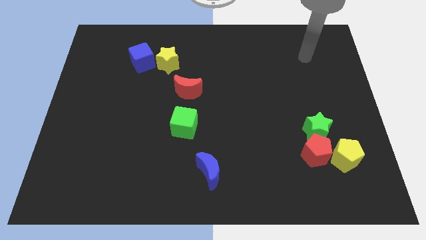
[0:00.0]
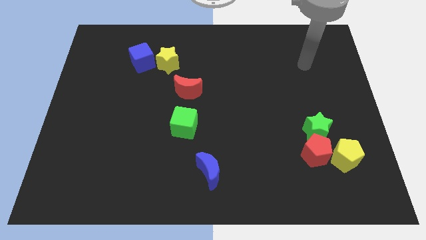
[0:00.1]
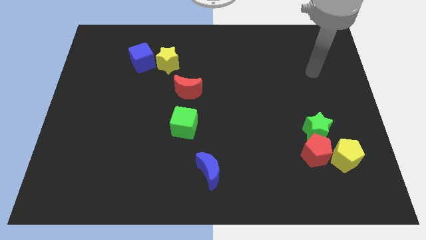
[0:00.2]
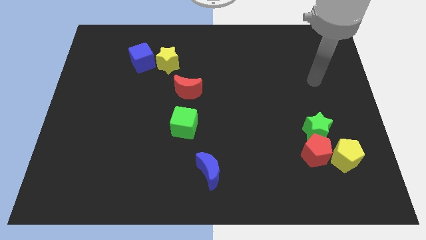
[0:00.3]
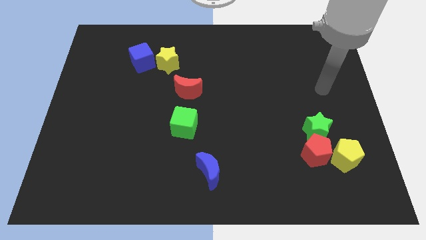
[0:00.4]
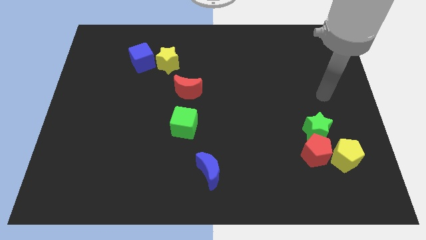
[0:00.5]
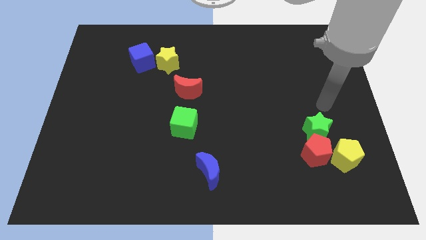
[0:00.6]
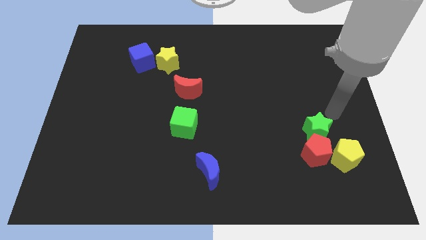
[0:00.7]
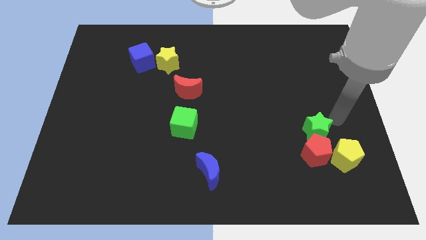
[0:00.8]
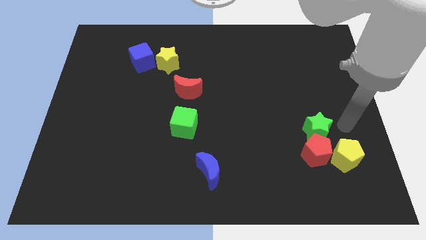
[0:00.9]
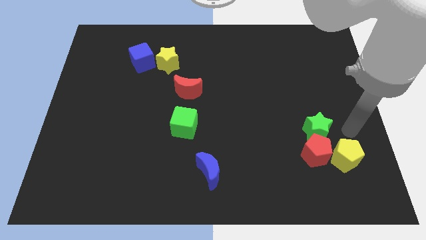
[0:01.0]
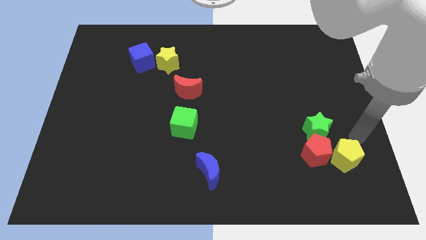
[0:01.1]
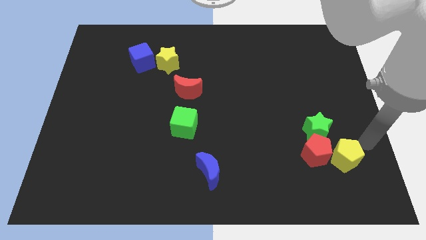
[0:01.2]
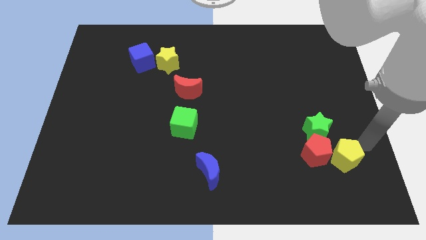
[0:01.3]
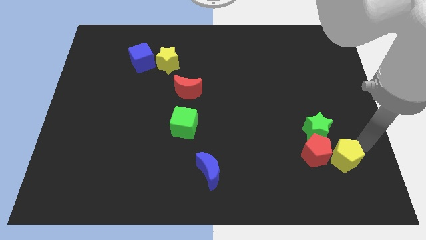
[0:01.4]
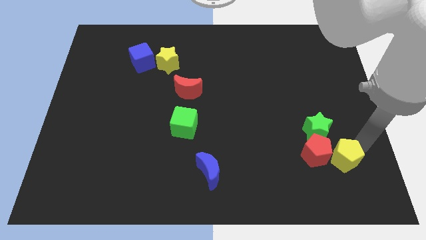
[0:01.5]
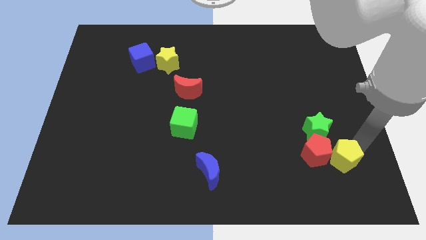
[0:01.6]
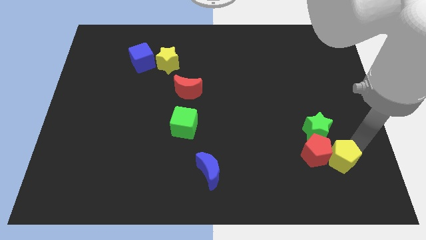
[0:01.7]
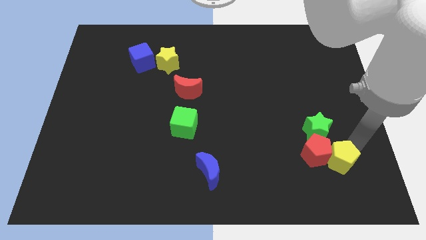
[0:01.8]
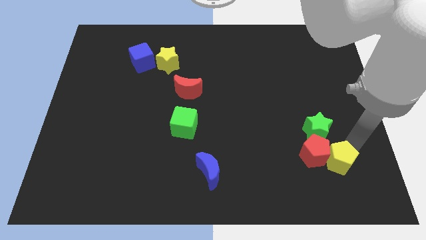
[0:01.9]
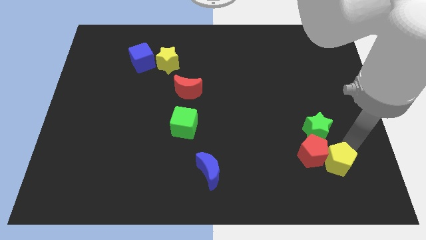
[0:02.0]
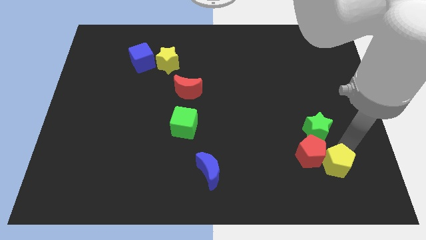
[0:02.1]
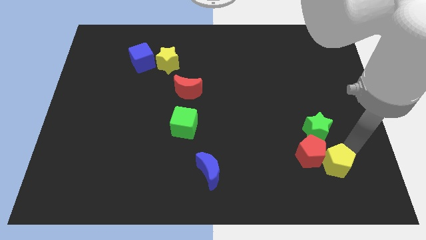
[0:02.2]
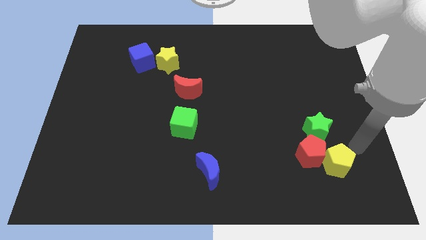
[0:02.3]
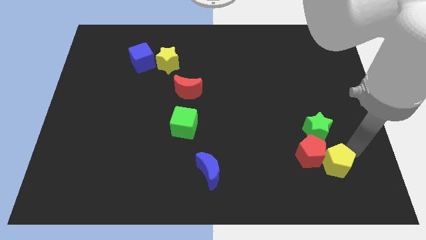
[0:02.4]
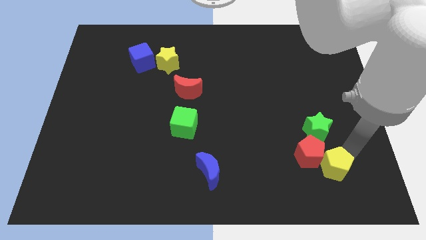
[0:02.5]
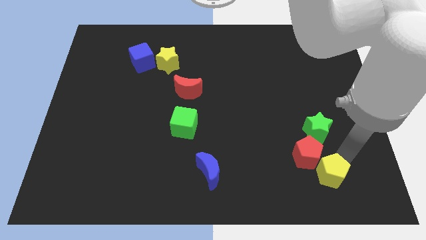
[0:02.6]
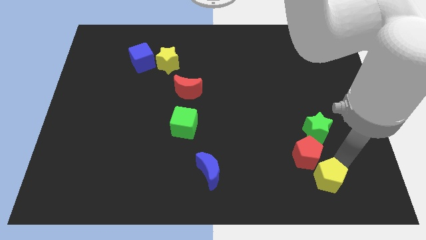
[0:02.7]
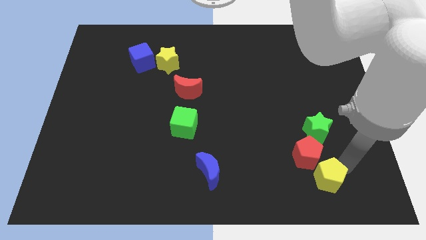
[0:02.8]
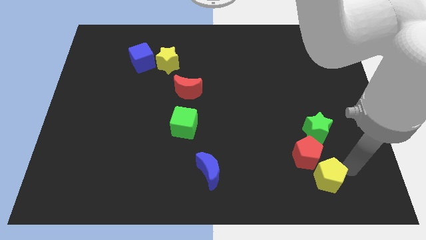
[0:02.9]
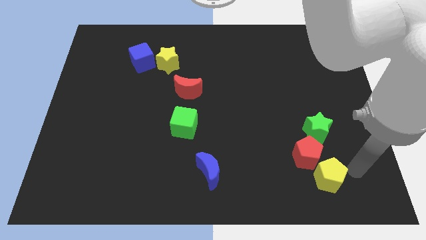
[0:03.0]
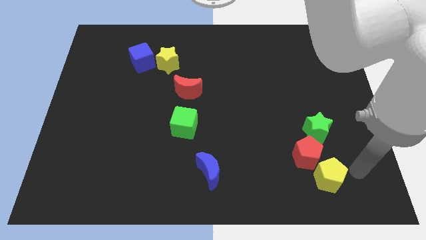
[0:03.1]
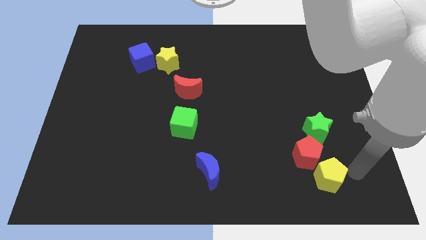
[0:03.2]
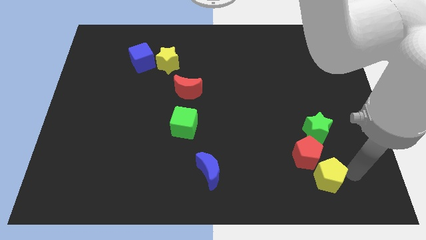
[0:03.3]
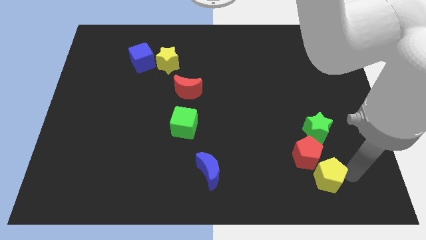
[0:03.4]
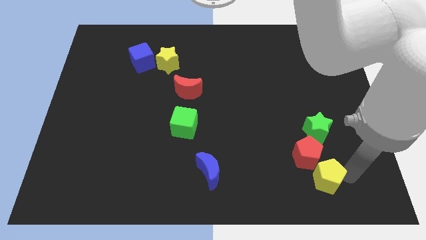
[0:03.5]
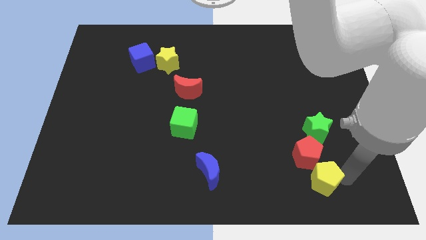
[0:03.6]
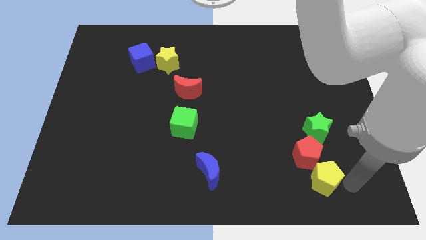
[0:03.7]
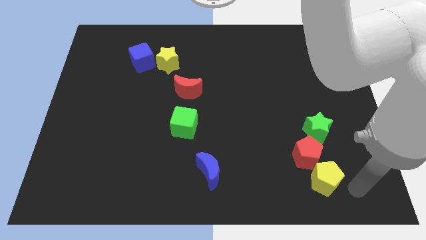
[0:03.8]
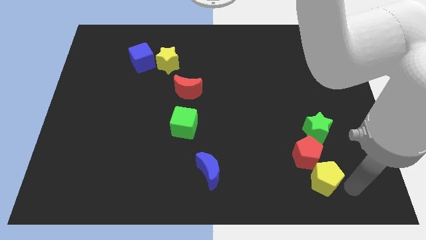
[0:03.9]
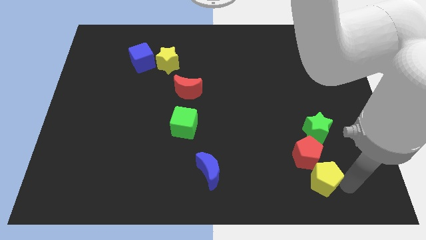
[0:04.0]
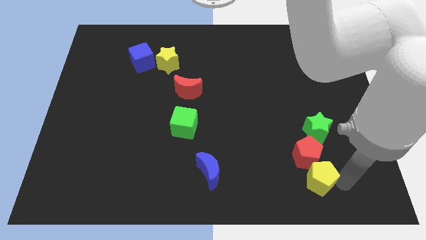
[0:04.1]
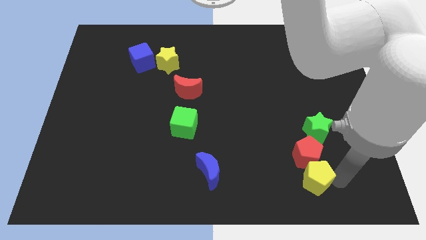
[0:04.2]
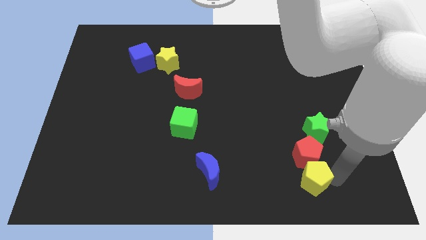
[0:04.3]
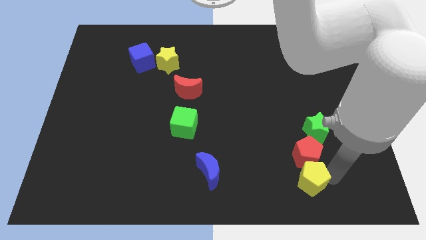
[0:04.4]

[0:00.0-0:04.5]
slide the yellow pentagon a little bit to the left

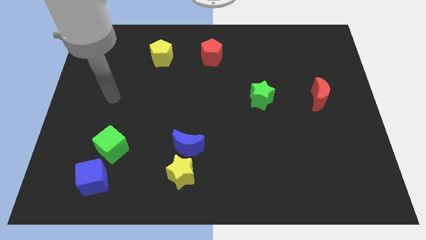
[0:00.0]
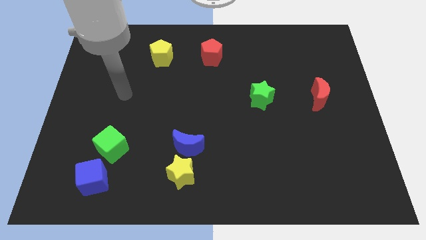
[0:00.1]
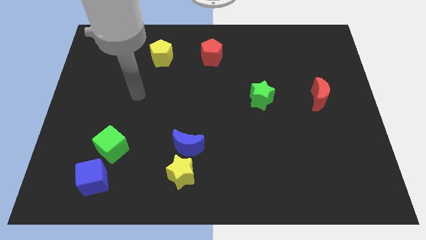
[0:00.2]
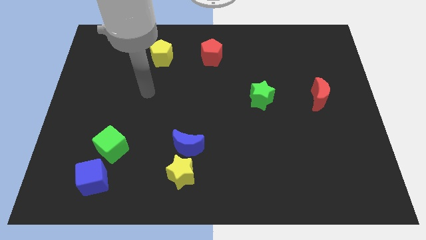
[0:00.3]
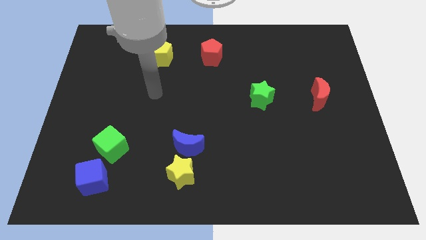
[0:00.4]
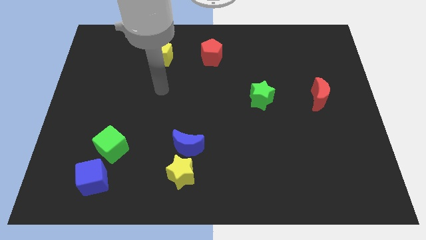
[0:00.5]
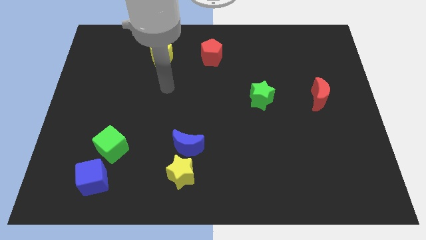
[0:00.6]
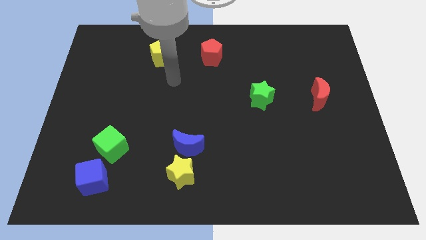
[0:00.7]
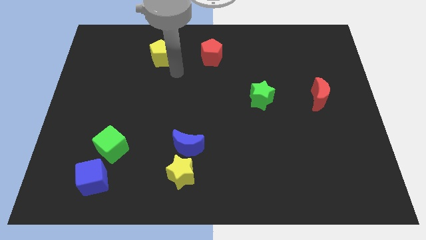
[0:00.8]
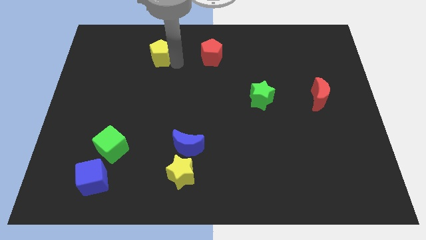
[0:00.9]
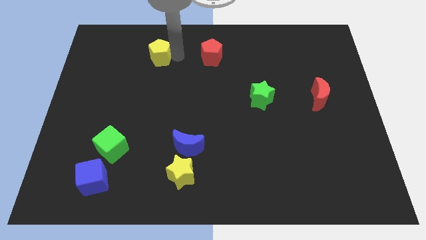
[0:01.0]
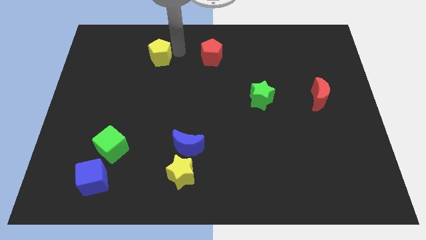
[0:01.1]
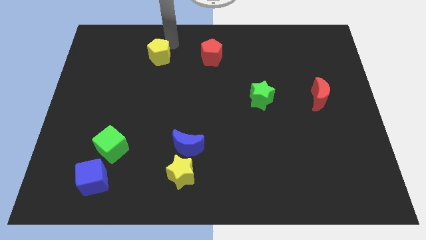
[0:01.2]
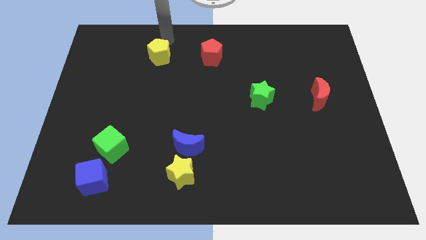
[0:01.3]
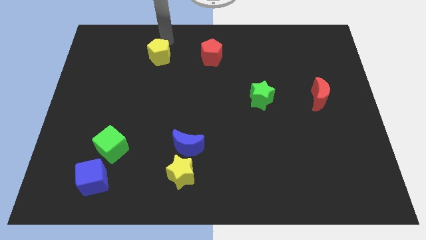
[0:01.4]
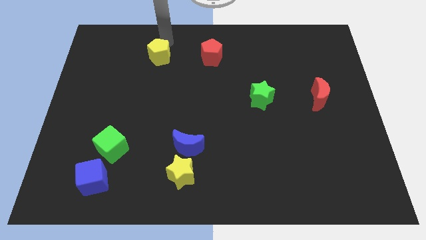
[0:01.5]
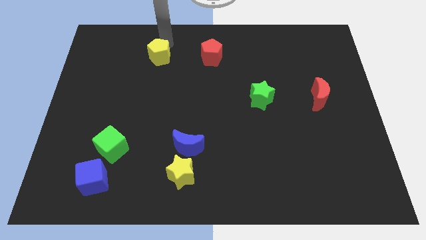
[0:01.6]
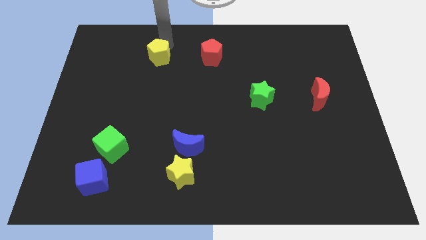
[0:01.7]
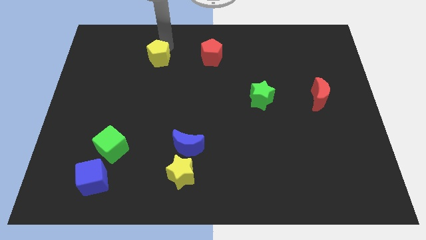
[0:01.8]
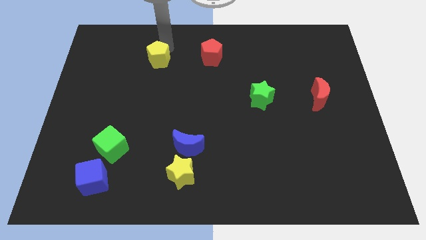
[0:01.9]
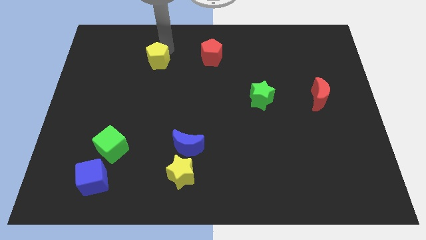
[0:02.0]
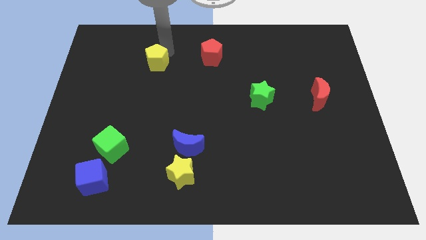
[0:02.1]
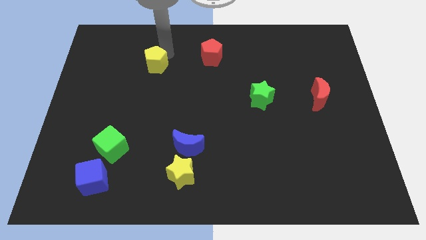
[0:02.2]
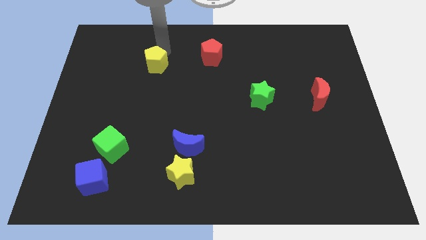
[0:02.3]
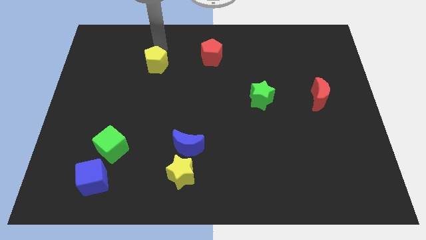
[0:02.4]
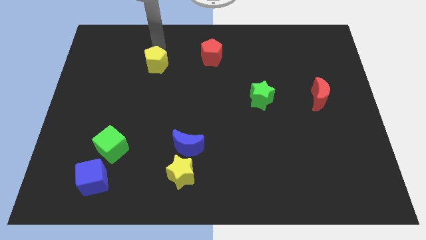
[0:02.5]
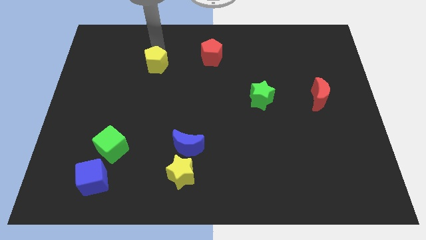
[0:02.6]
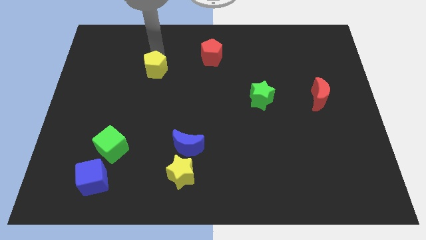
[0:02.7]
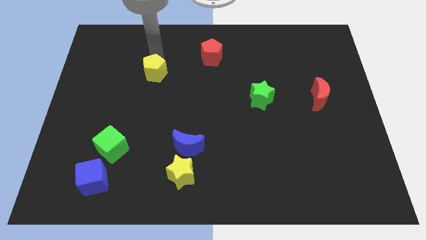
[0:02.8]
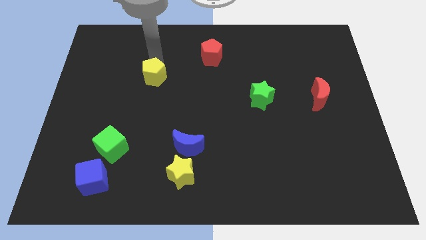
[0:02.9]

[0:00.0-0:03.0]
push the yellow pentagon somewhat down

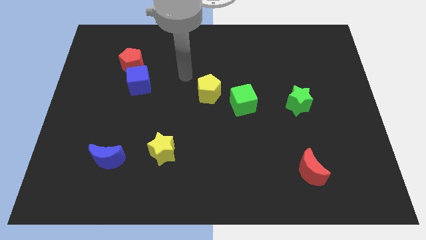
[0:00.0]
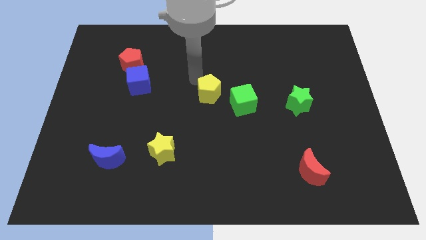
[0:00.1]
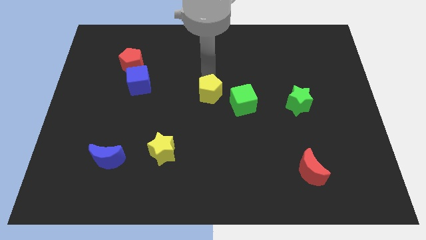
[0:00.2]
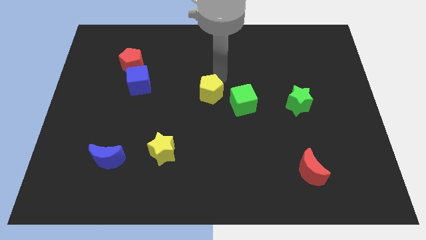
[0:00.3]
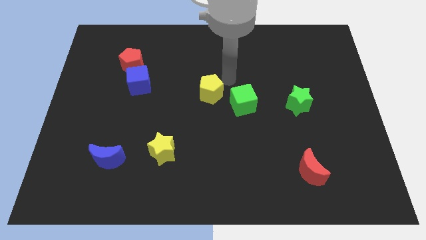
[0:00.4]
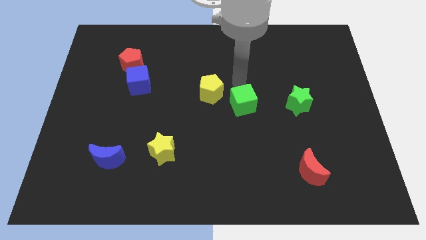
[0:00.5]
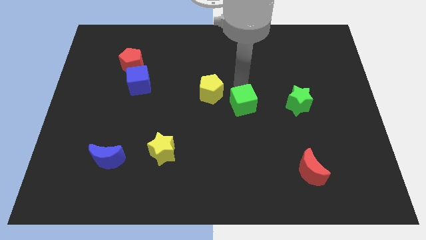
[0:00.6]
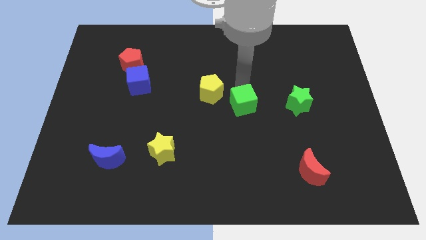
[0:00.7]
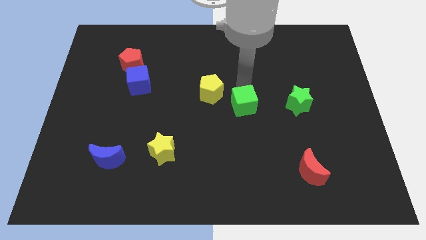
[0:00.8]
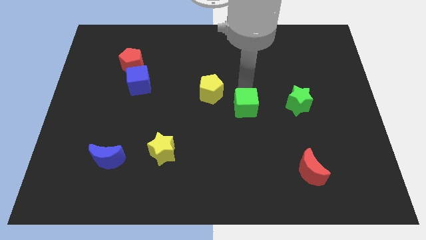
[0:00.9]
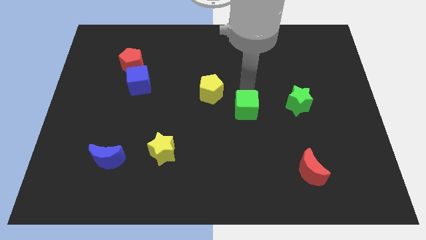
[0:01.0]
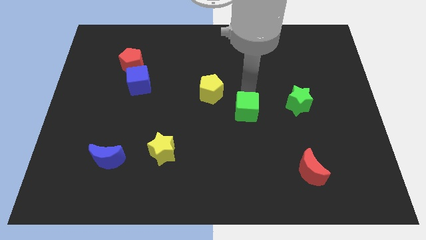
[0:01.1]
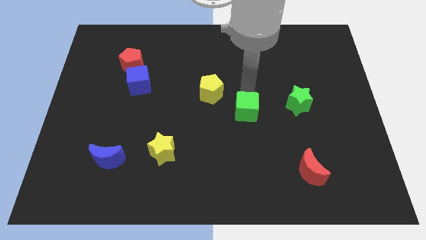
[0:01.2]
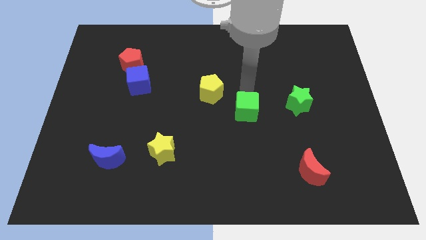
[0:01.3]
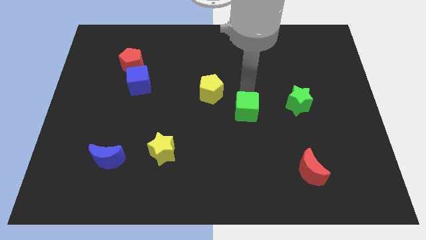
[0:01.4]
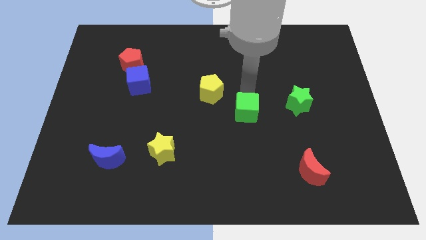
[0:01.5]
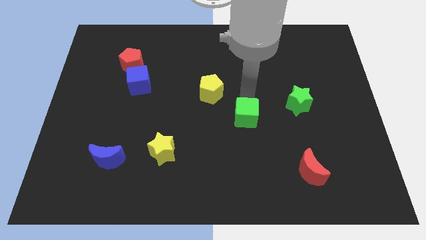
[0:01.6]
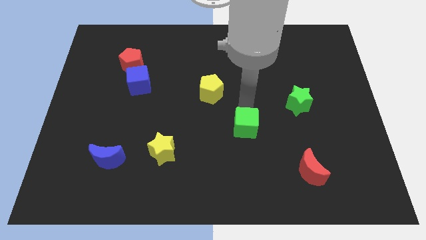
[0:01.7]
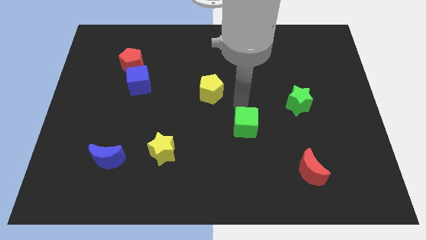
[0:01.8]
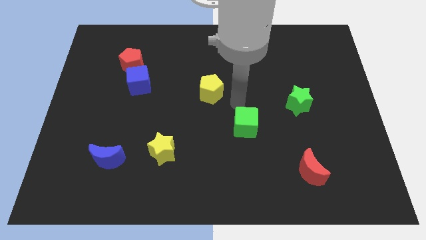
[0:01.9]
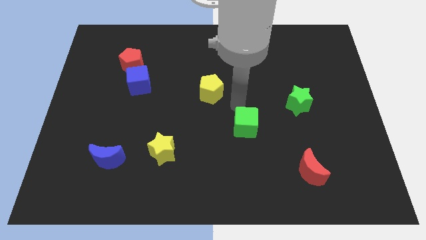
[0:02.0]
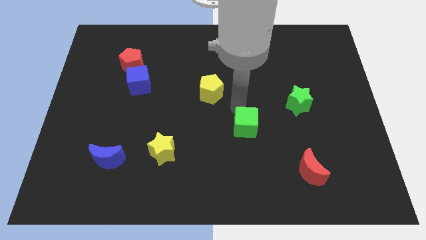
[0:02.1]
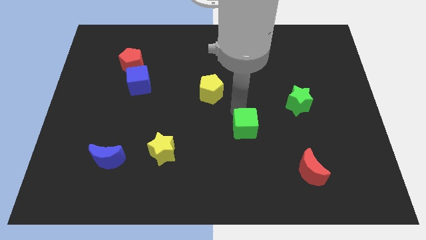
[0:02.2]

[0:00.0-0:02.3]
move the green cube slightly downwards
